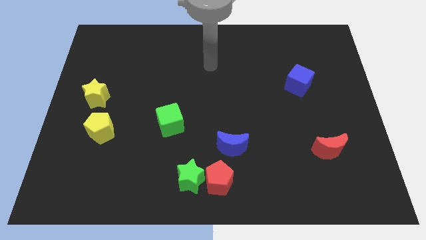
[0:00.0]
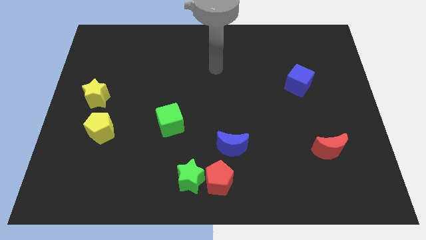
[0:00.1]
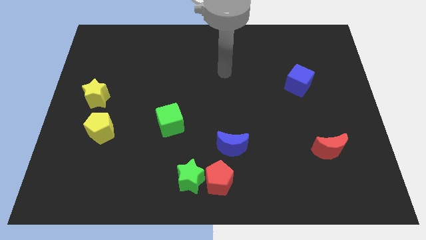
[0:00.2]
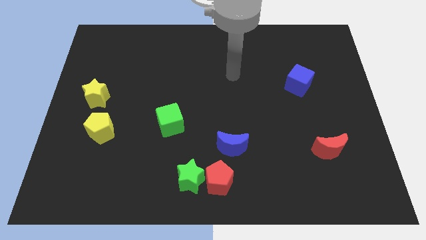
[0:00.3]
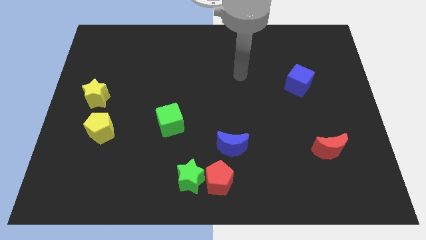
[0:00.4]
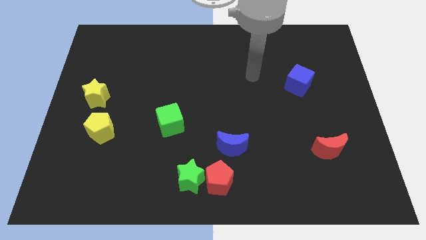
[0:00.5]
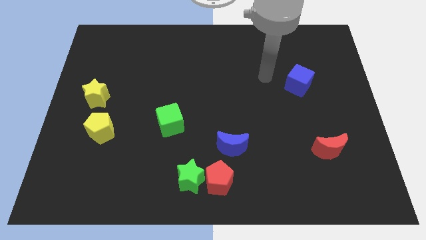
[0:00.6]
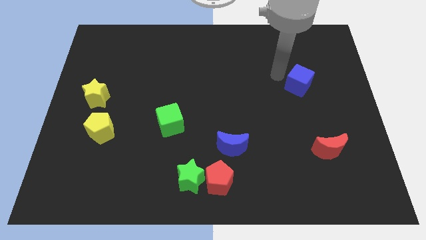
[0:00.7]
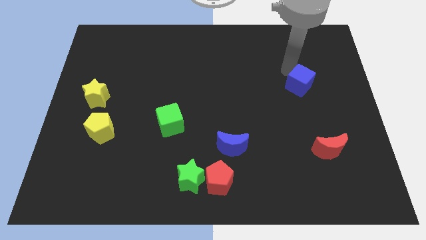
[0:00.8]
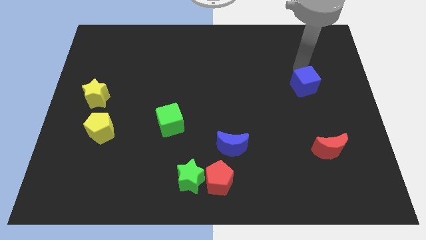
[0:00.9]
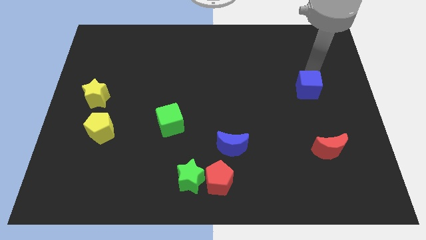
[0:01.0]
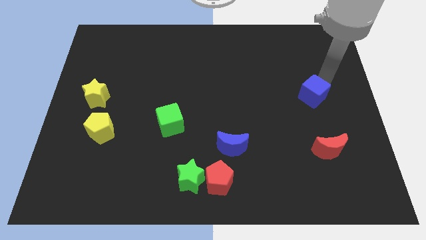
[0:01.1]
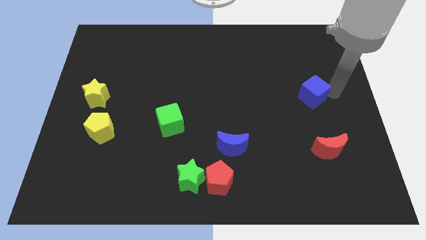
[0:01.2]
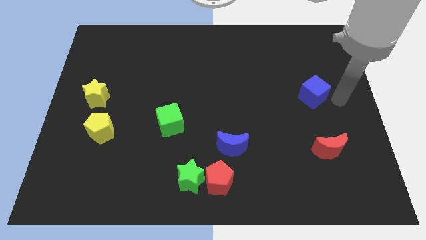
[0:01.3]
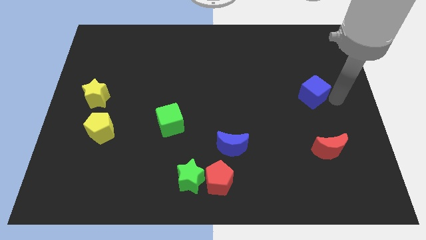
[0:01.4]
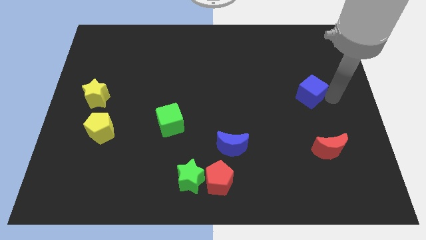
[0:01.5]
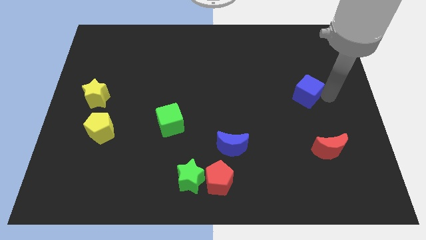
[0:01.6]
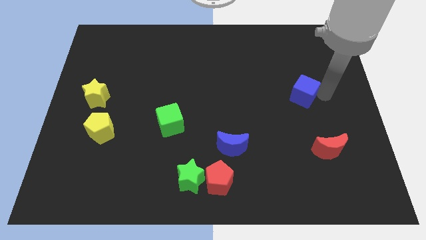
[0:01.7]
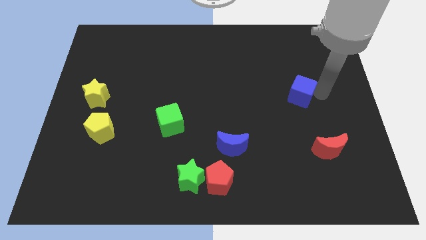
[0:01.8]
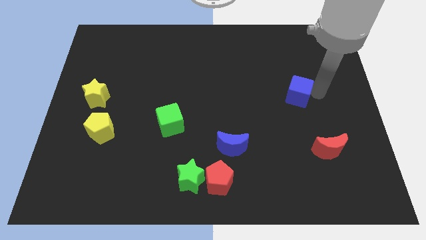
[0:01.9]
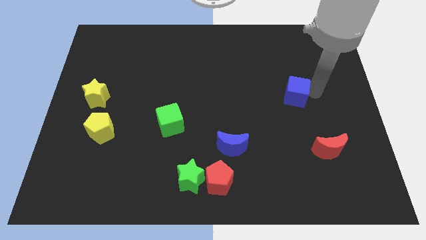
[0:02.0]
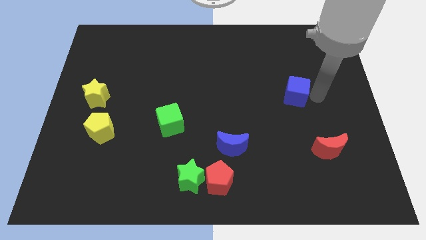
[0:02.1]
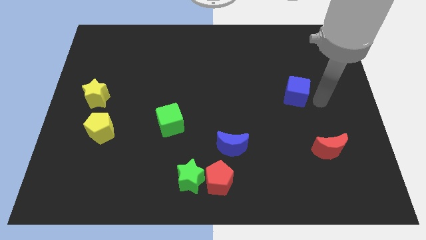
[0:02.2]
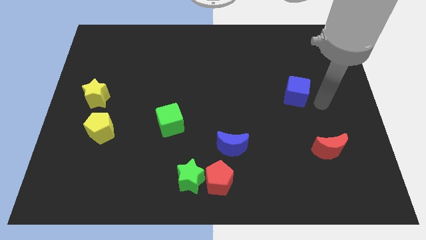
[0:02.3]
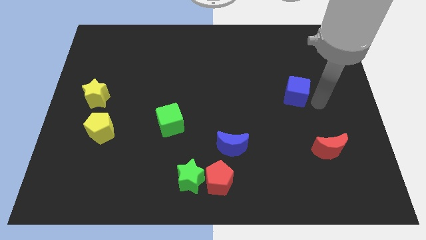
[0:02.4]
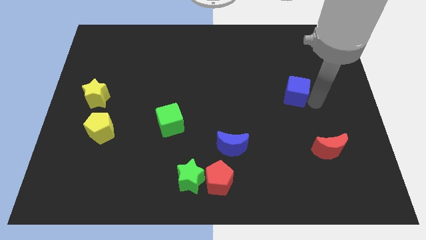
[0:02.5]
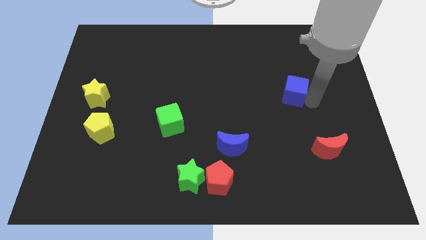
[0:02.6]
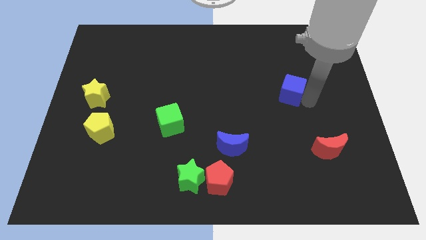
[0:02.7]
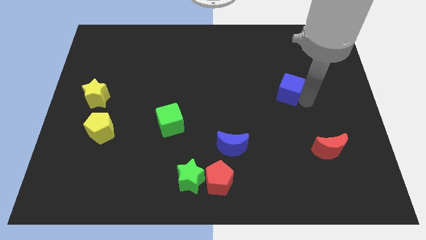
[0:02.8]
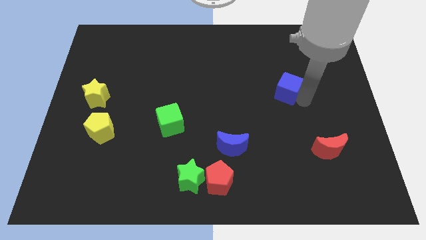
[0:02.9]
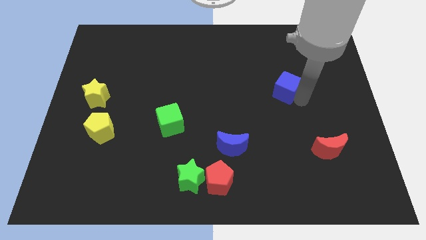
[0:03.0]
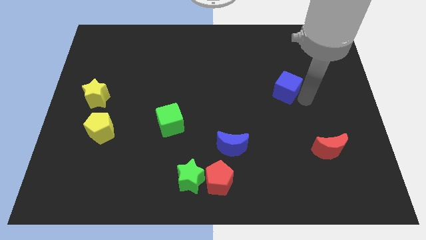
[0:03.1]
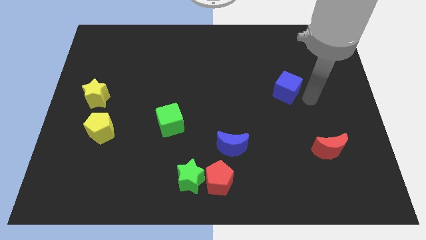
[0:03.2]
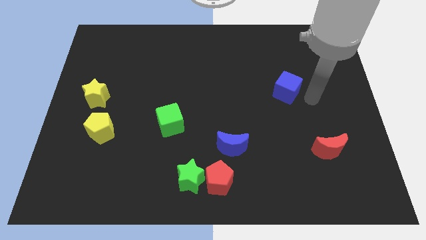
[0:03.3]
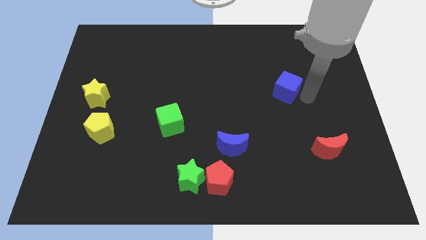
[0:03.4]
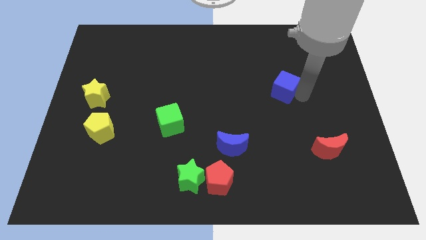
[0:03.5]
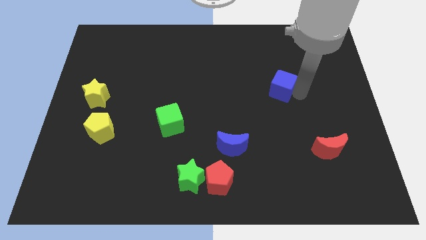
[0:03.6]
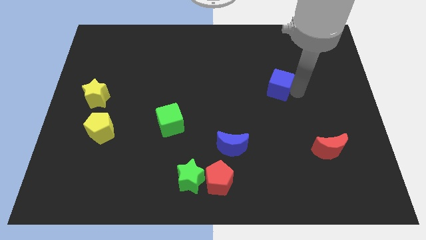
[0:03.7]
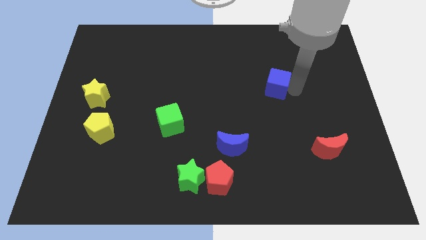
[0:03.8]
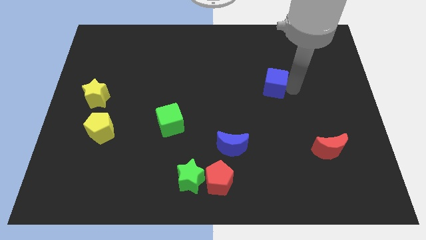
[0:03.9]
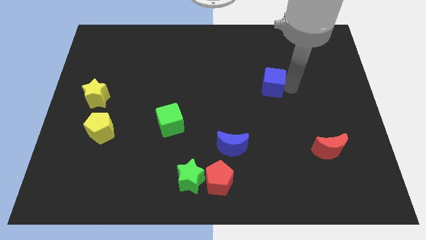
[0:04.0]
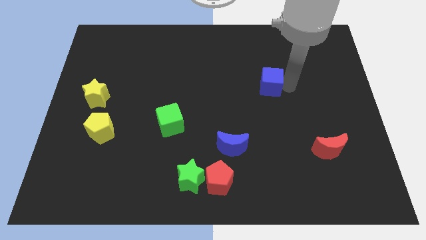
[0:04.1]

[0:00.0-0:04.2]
move the blue cube left a little

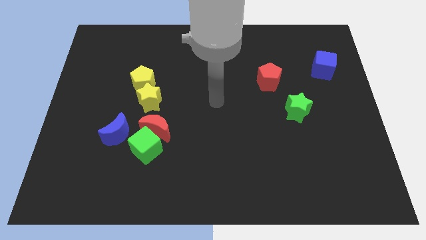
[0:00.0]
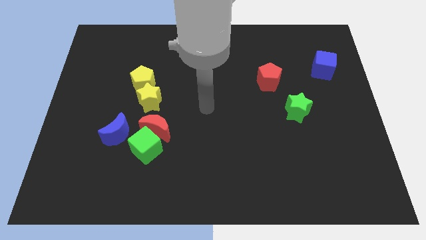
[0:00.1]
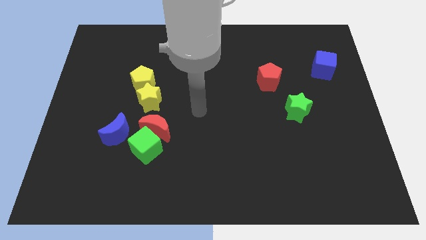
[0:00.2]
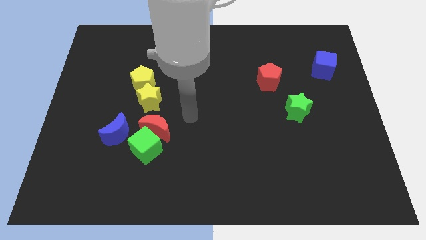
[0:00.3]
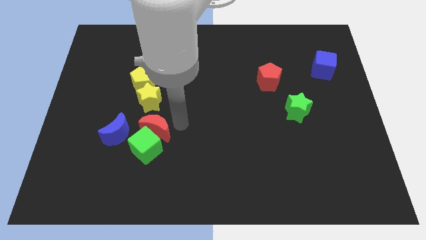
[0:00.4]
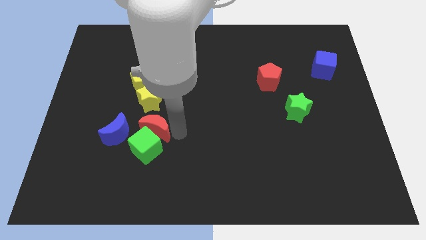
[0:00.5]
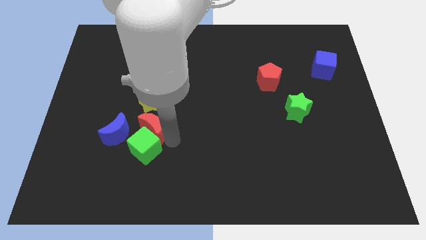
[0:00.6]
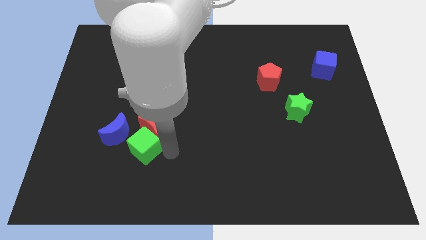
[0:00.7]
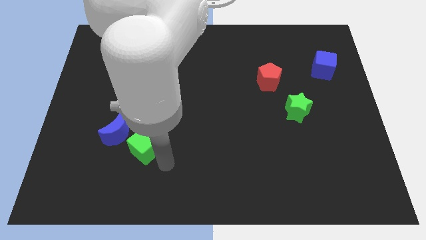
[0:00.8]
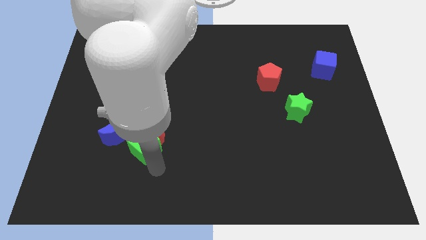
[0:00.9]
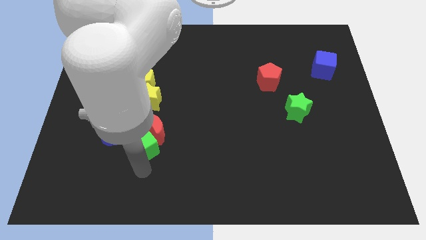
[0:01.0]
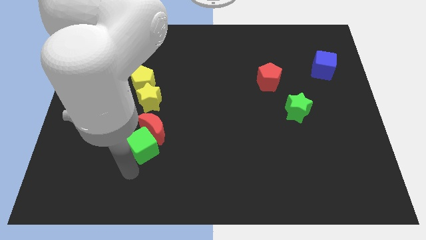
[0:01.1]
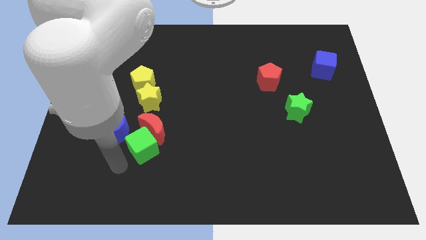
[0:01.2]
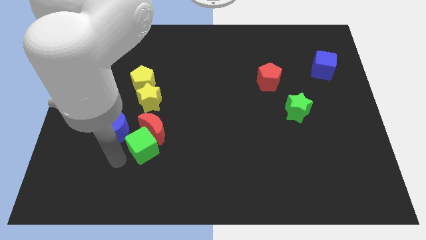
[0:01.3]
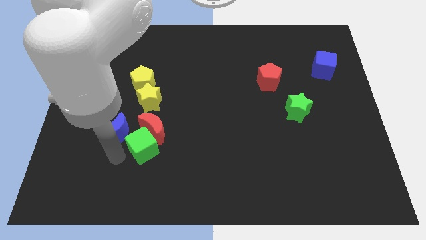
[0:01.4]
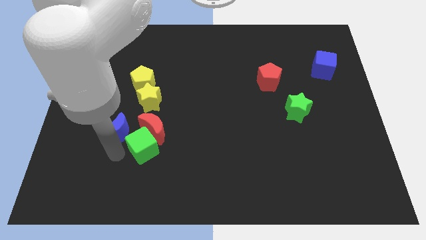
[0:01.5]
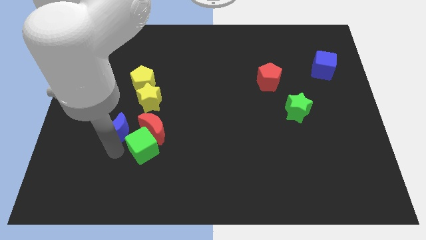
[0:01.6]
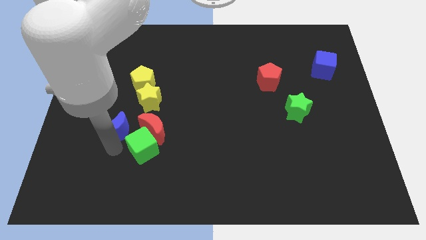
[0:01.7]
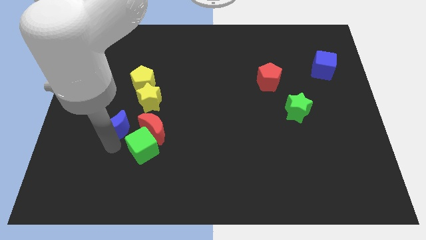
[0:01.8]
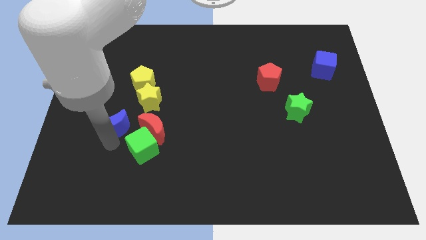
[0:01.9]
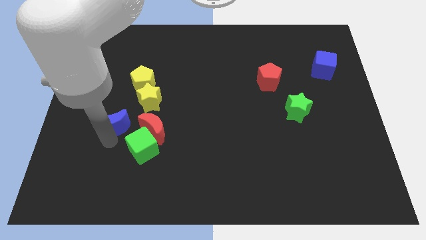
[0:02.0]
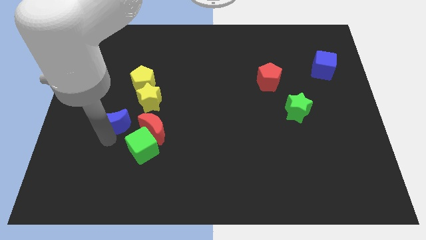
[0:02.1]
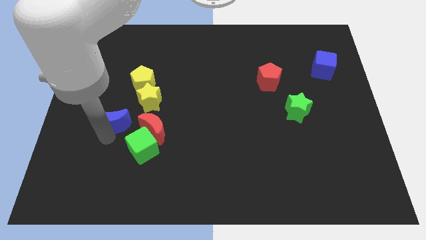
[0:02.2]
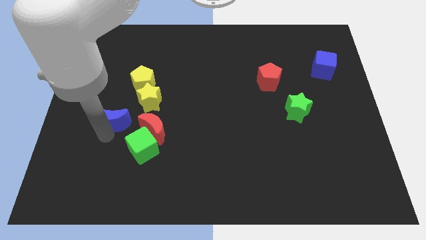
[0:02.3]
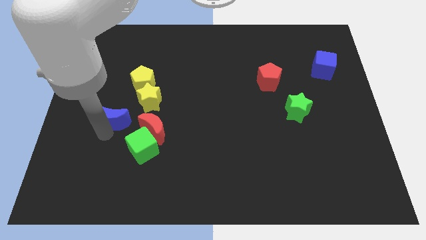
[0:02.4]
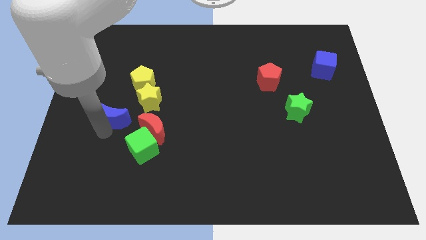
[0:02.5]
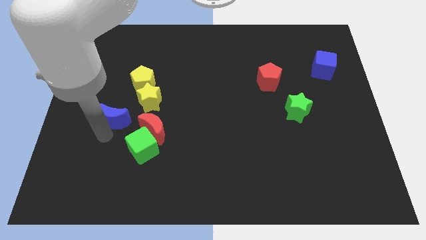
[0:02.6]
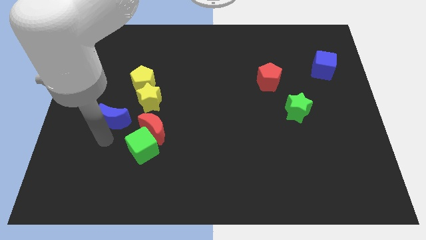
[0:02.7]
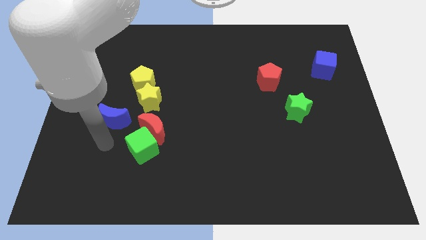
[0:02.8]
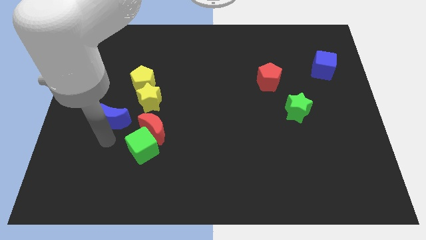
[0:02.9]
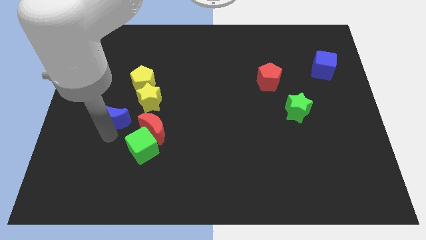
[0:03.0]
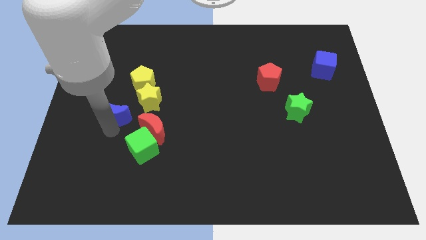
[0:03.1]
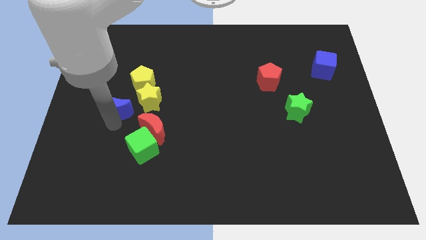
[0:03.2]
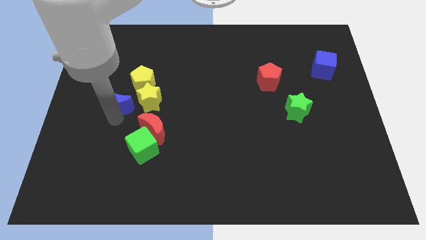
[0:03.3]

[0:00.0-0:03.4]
slightly slide the blue moon upwards

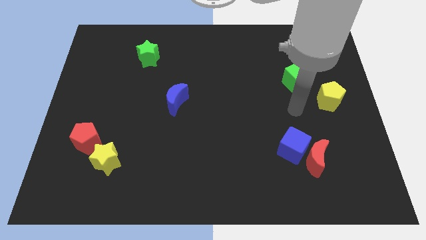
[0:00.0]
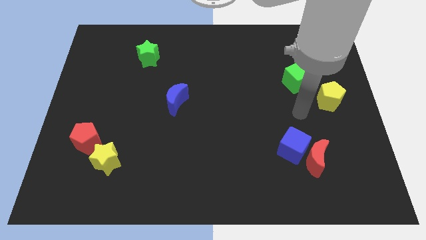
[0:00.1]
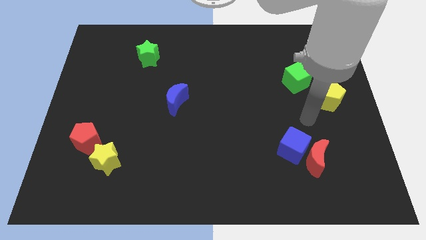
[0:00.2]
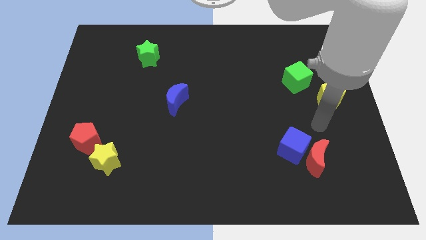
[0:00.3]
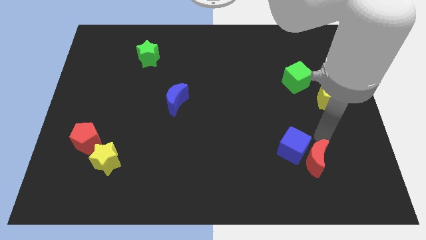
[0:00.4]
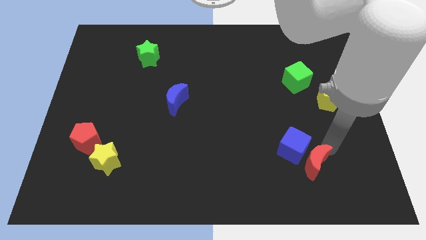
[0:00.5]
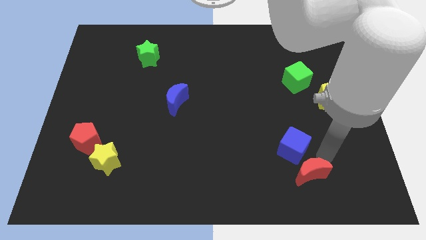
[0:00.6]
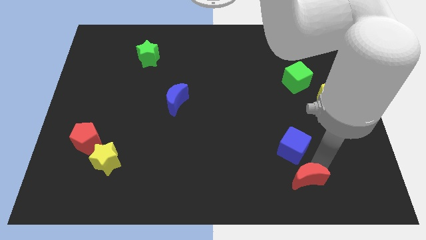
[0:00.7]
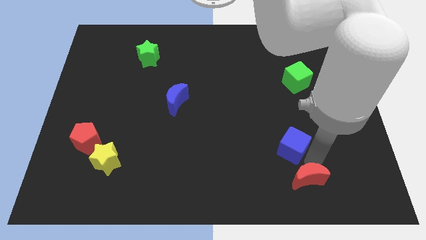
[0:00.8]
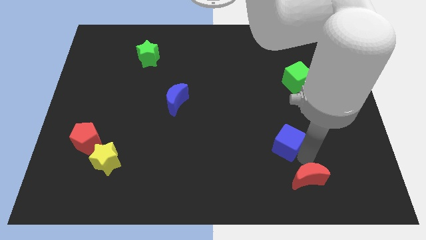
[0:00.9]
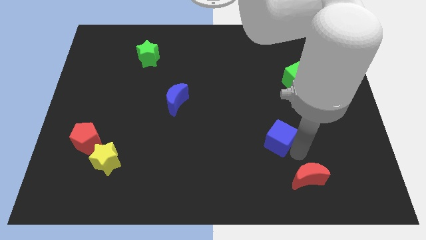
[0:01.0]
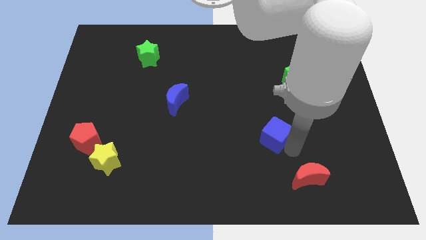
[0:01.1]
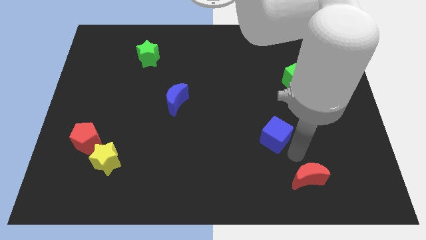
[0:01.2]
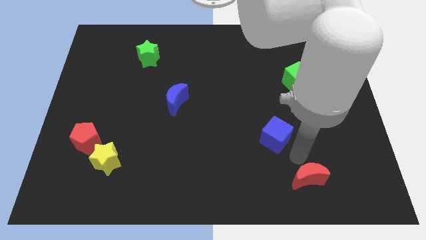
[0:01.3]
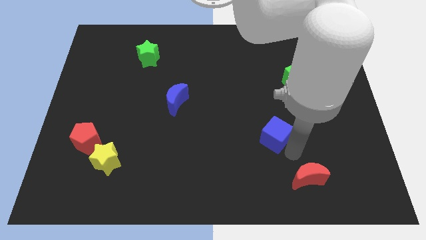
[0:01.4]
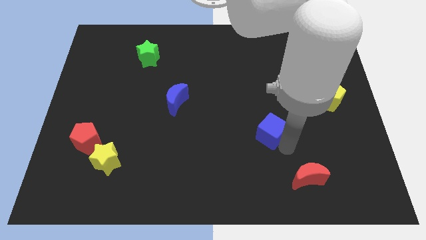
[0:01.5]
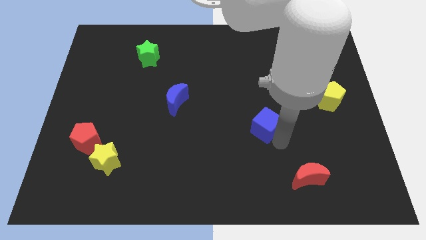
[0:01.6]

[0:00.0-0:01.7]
slightly push the blue cube up and to the left diagonally
